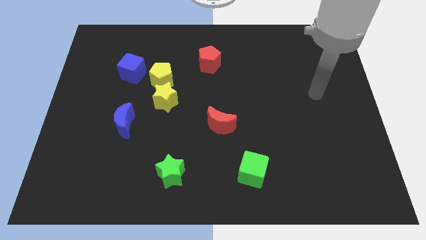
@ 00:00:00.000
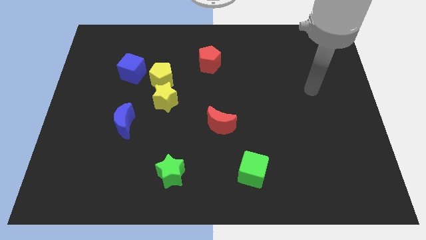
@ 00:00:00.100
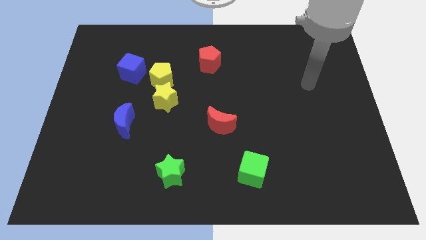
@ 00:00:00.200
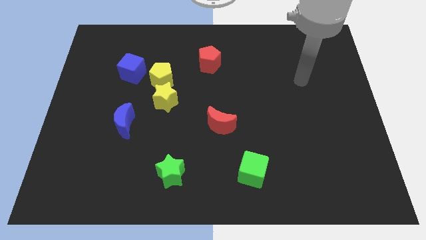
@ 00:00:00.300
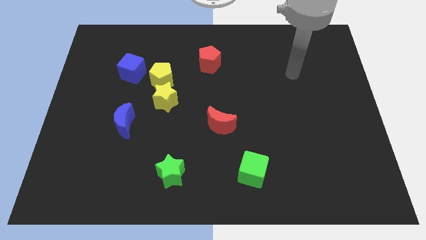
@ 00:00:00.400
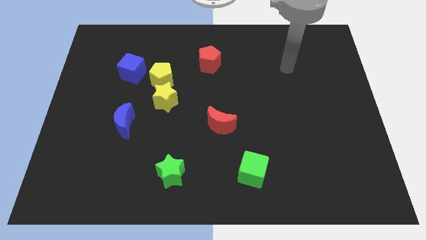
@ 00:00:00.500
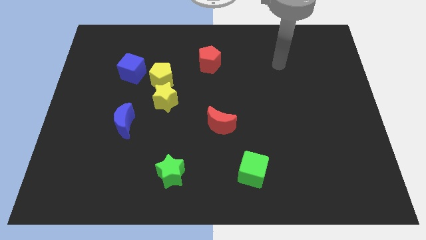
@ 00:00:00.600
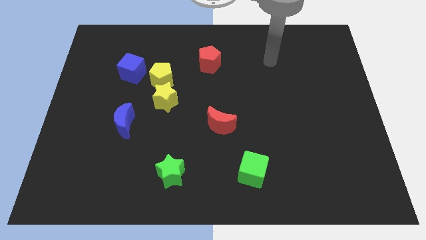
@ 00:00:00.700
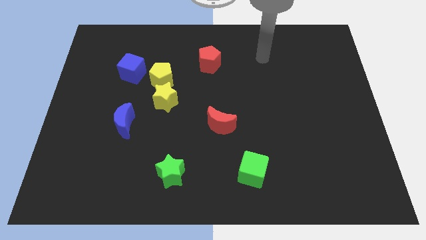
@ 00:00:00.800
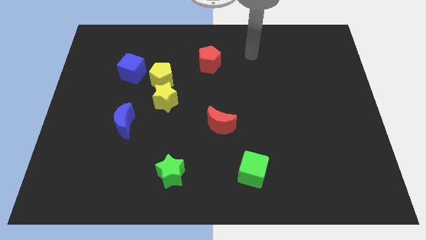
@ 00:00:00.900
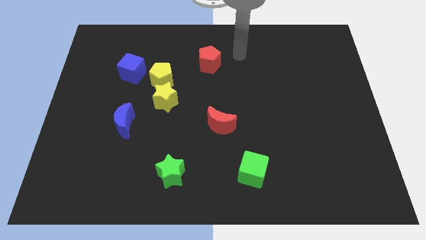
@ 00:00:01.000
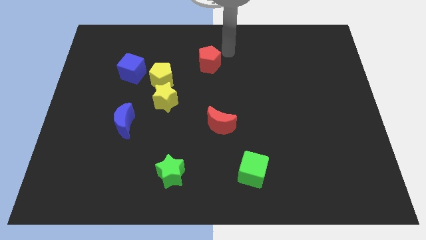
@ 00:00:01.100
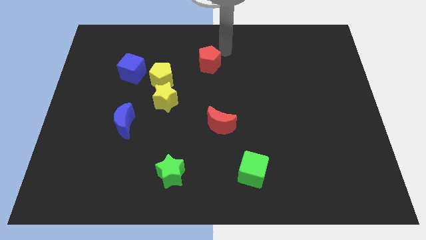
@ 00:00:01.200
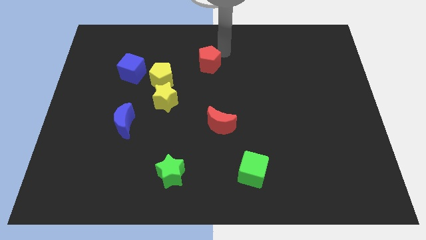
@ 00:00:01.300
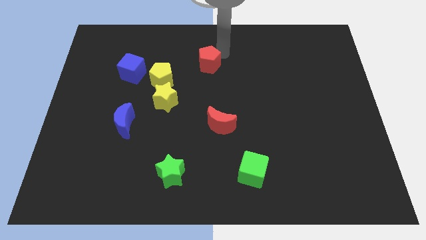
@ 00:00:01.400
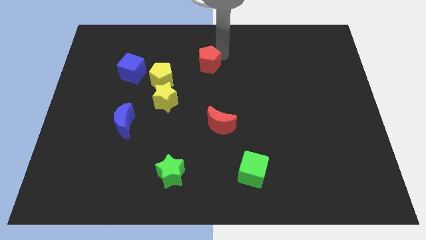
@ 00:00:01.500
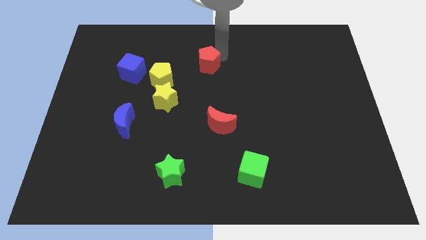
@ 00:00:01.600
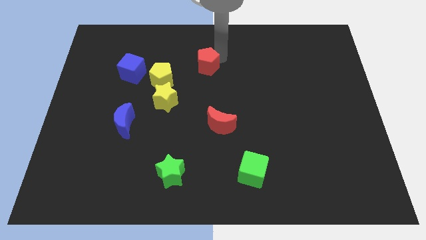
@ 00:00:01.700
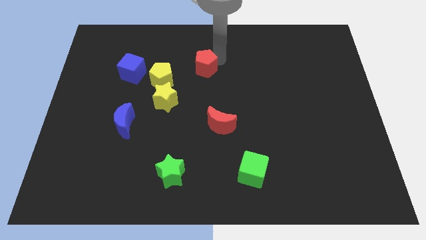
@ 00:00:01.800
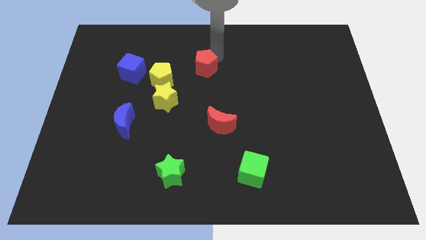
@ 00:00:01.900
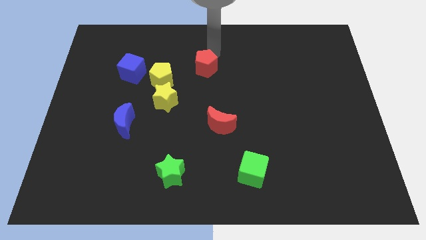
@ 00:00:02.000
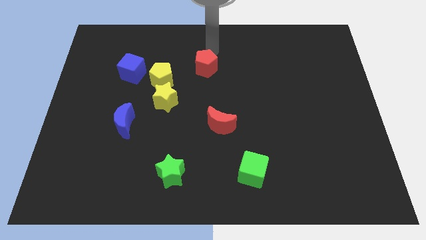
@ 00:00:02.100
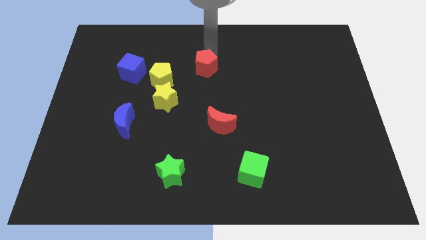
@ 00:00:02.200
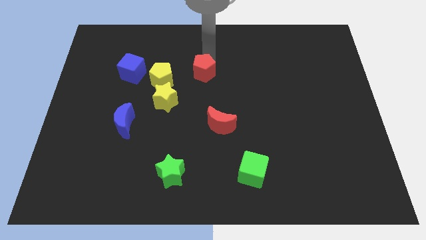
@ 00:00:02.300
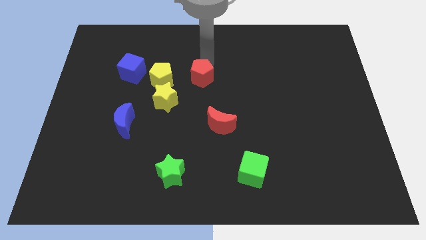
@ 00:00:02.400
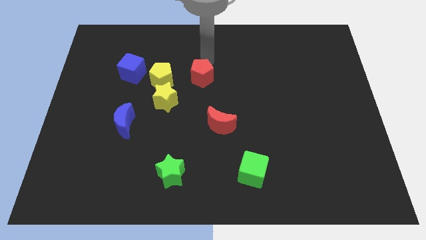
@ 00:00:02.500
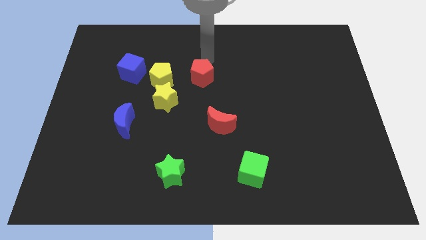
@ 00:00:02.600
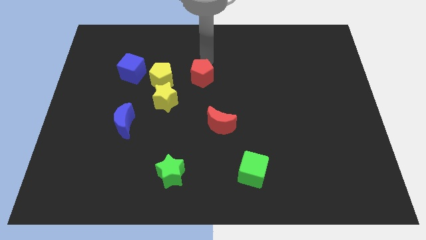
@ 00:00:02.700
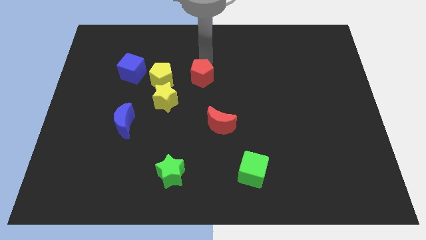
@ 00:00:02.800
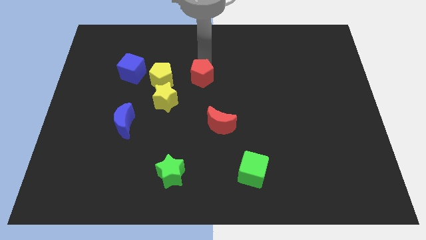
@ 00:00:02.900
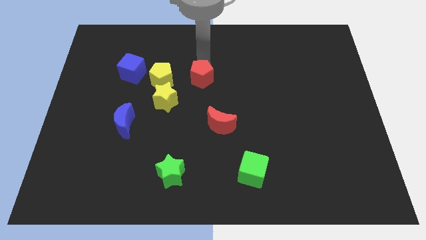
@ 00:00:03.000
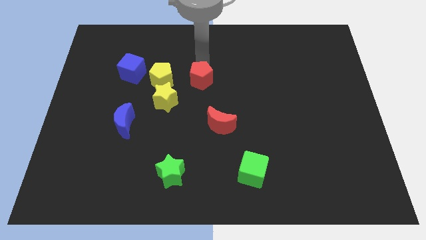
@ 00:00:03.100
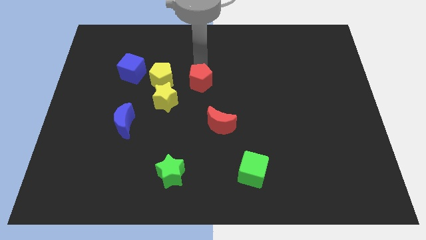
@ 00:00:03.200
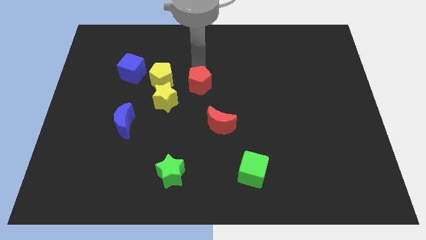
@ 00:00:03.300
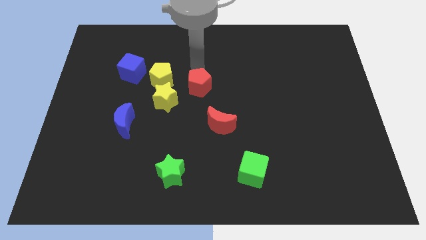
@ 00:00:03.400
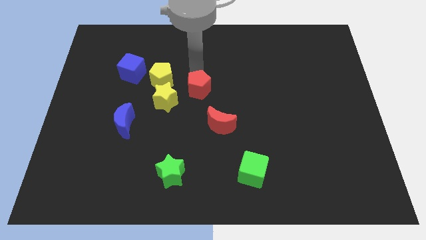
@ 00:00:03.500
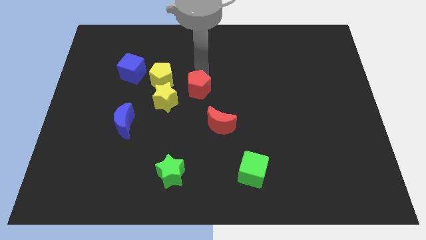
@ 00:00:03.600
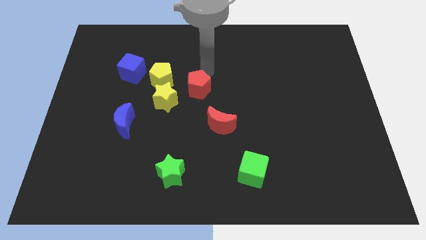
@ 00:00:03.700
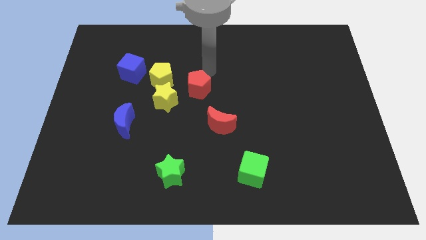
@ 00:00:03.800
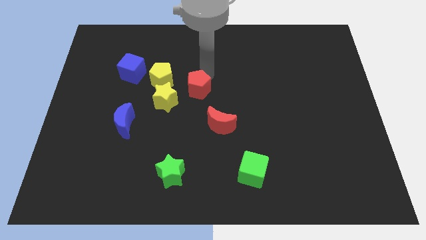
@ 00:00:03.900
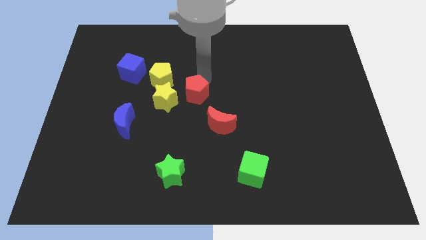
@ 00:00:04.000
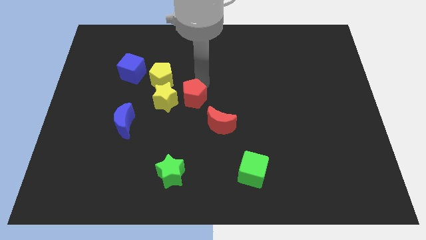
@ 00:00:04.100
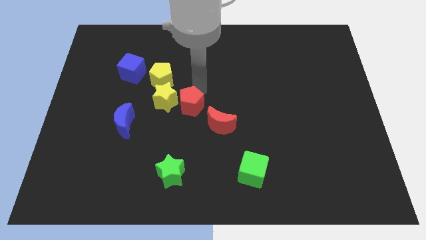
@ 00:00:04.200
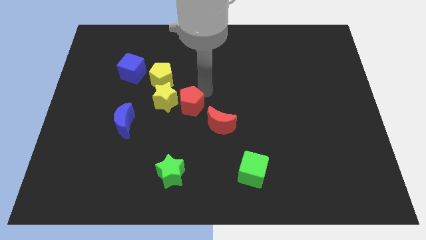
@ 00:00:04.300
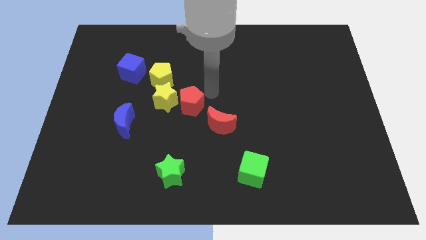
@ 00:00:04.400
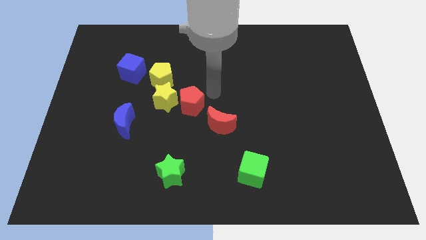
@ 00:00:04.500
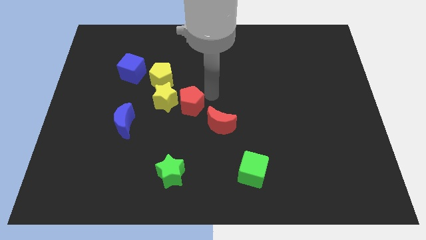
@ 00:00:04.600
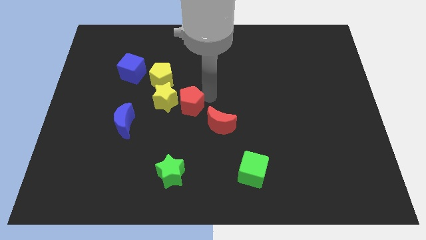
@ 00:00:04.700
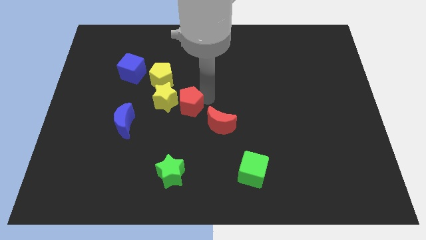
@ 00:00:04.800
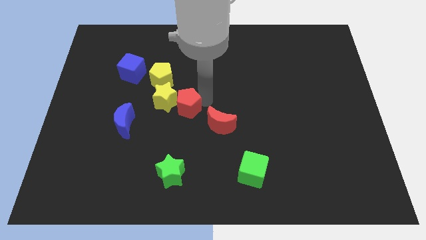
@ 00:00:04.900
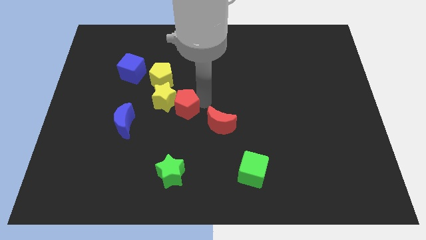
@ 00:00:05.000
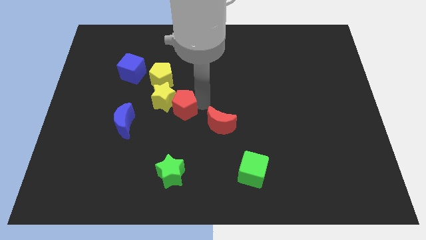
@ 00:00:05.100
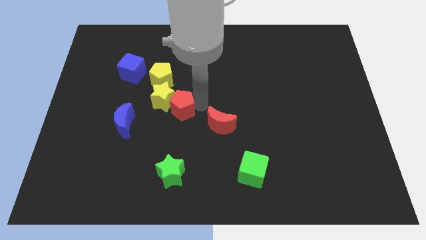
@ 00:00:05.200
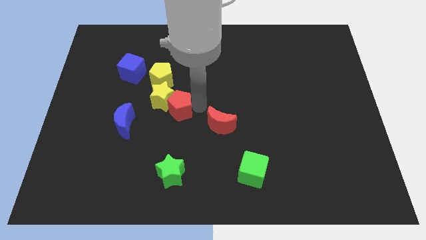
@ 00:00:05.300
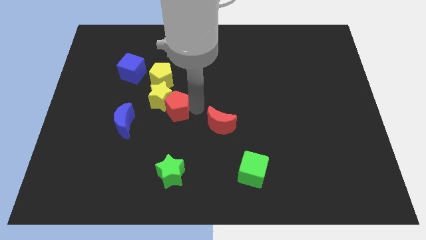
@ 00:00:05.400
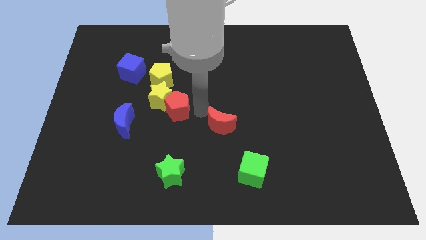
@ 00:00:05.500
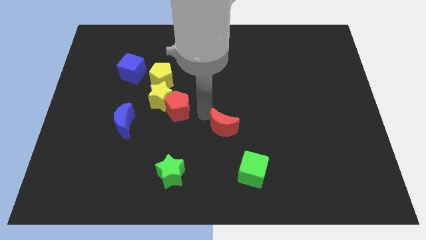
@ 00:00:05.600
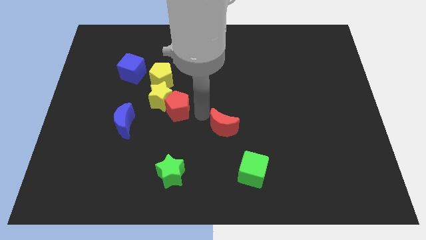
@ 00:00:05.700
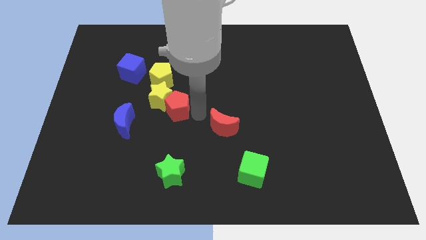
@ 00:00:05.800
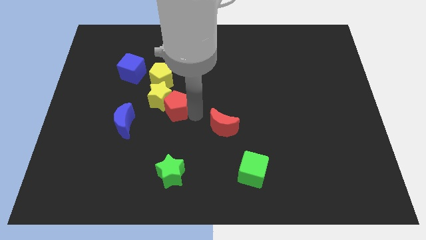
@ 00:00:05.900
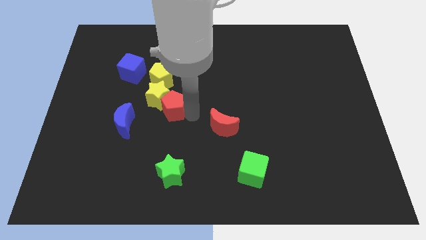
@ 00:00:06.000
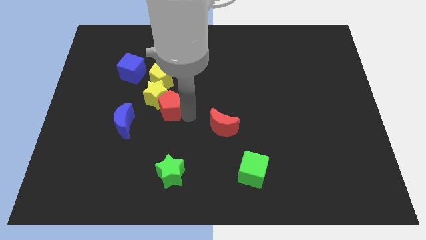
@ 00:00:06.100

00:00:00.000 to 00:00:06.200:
push the red pentagon diagonally up and to the right of the blue moon

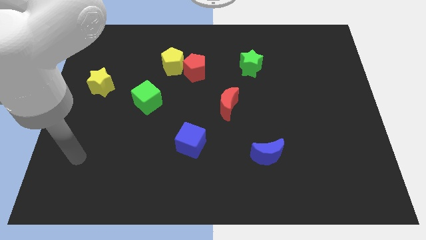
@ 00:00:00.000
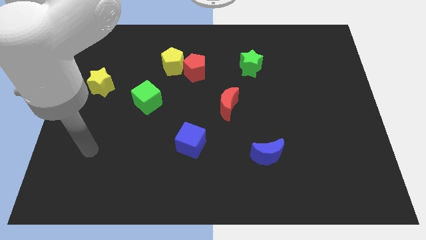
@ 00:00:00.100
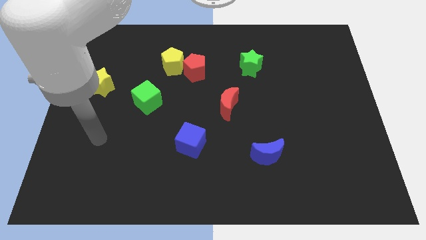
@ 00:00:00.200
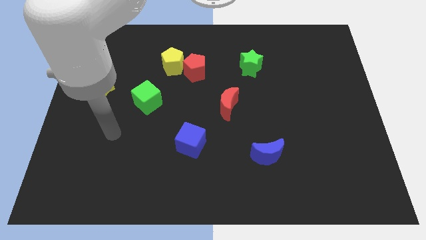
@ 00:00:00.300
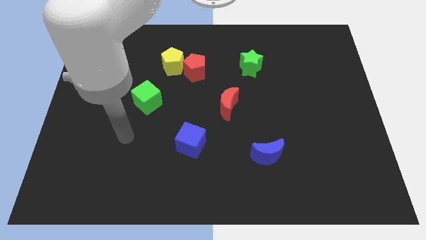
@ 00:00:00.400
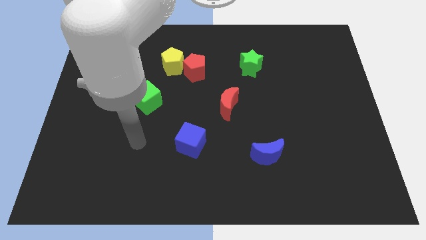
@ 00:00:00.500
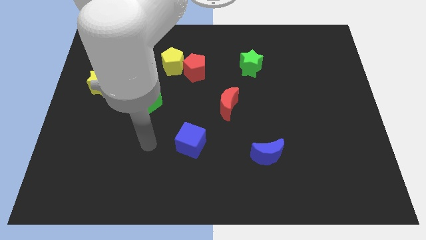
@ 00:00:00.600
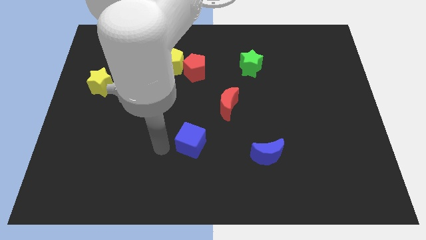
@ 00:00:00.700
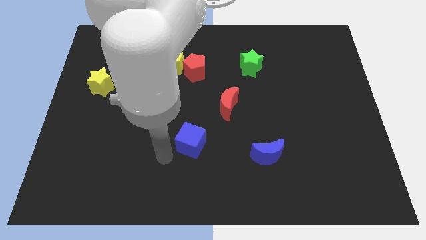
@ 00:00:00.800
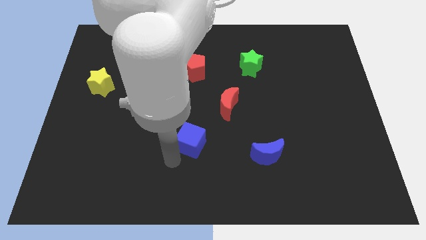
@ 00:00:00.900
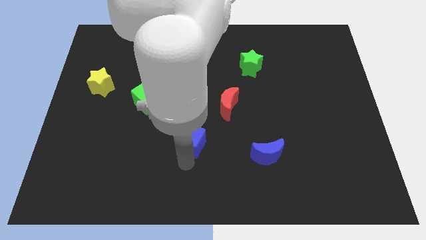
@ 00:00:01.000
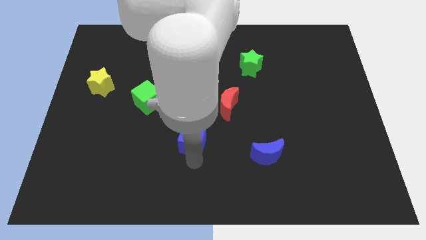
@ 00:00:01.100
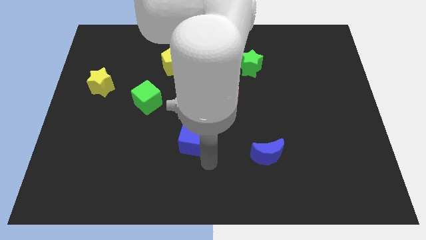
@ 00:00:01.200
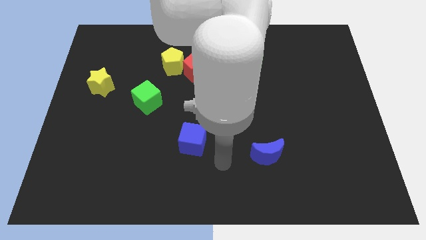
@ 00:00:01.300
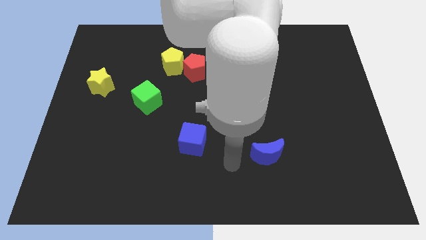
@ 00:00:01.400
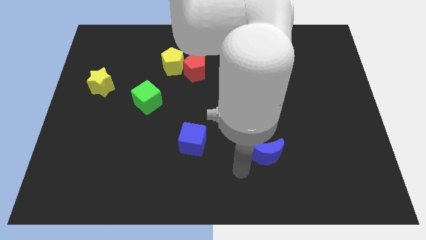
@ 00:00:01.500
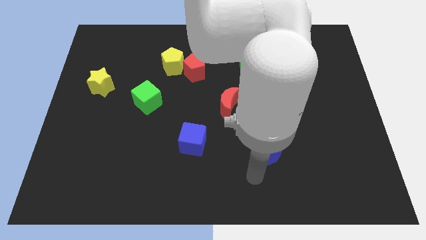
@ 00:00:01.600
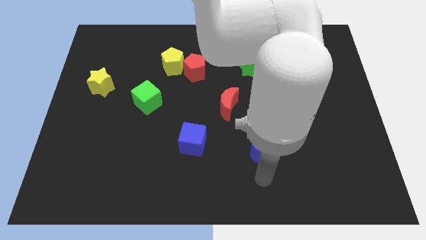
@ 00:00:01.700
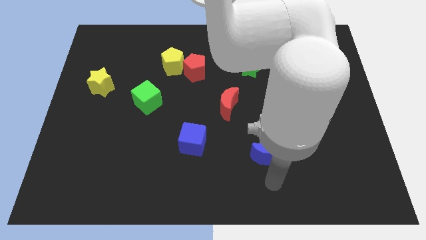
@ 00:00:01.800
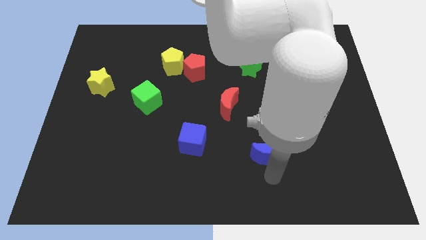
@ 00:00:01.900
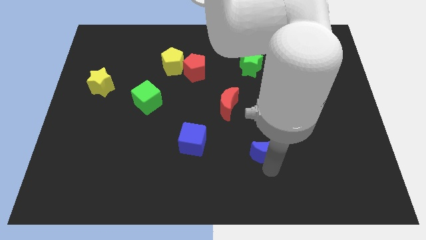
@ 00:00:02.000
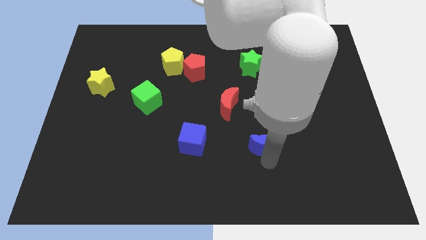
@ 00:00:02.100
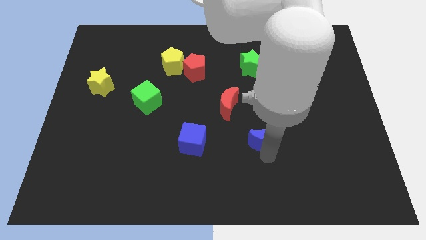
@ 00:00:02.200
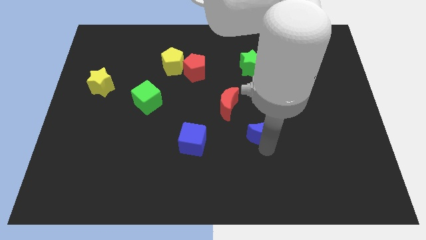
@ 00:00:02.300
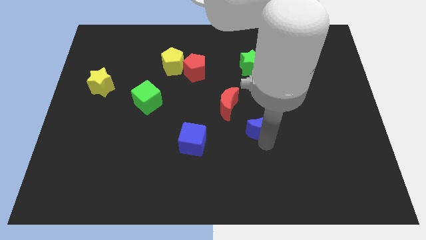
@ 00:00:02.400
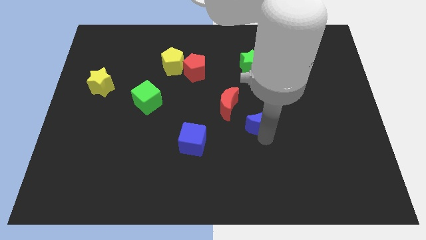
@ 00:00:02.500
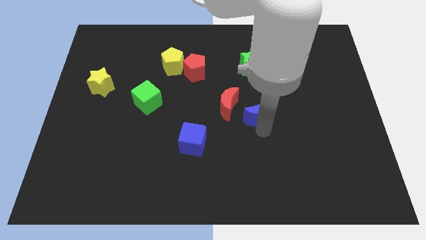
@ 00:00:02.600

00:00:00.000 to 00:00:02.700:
slide the blue moon below the green star
